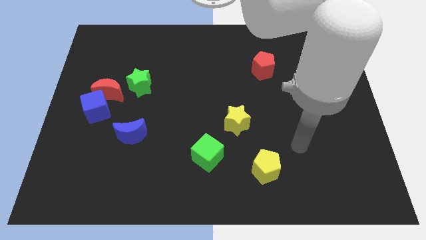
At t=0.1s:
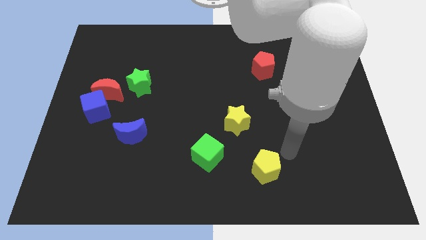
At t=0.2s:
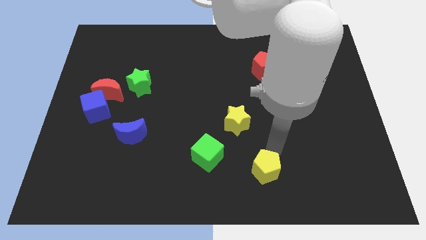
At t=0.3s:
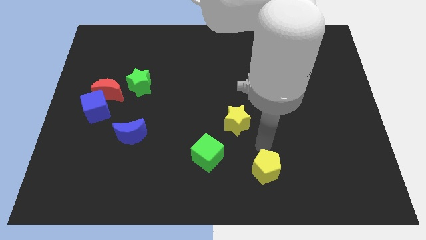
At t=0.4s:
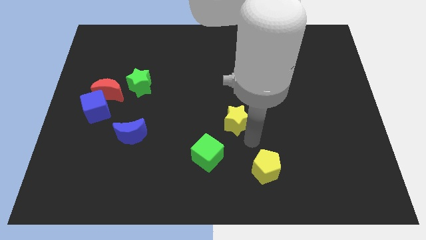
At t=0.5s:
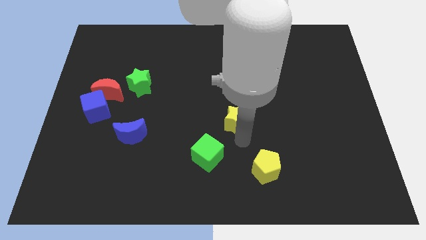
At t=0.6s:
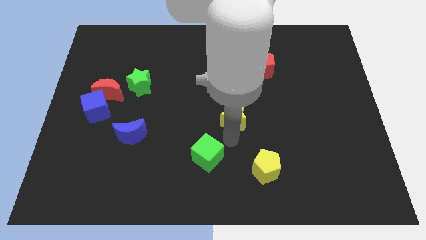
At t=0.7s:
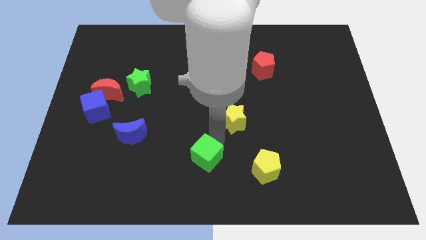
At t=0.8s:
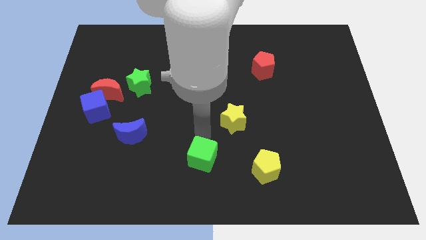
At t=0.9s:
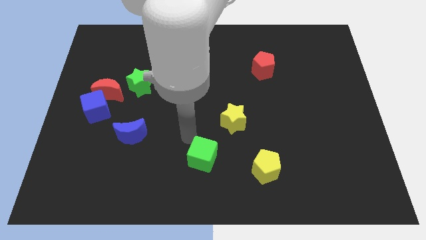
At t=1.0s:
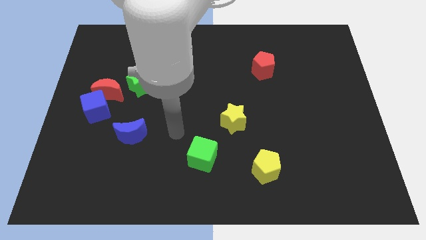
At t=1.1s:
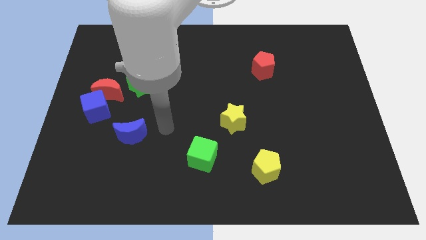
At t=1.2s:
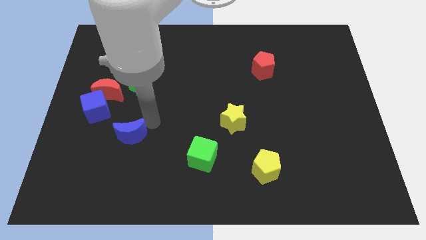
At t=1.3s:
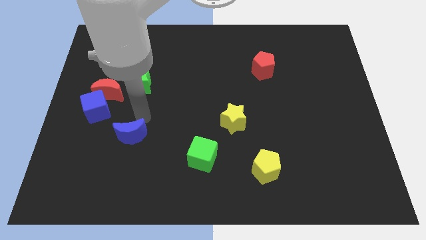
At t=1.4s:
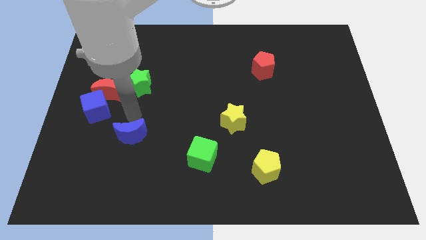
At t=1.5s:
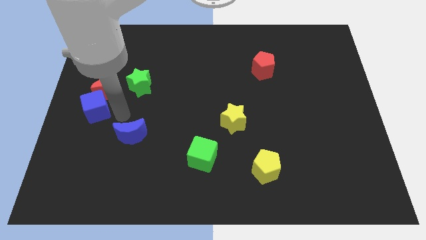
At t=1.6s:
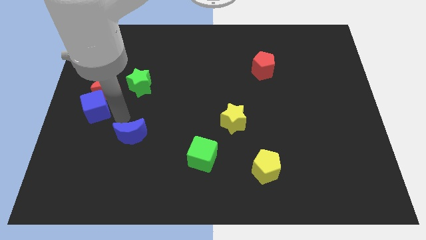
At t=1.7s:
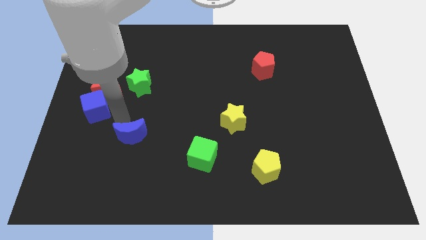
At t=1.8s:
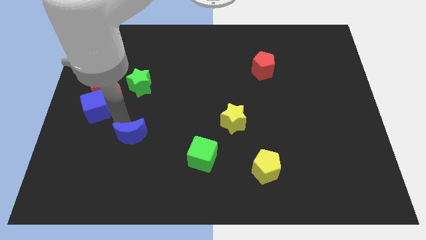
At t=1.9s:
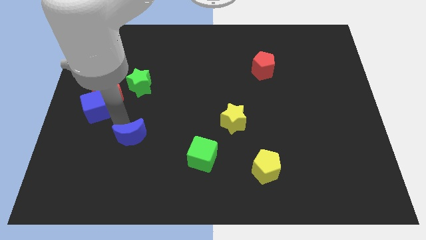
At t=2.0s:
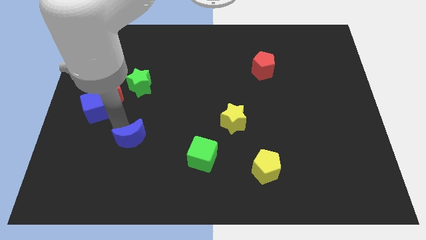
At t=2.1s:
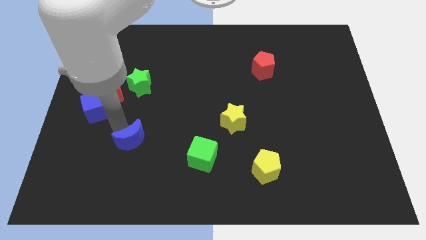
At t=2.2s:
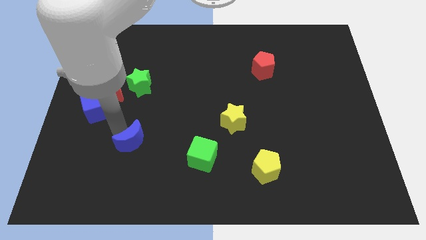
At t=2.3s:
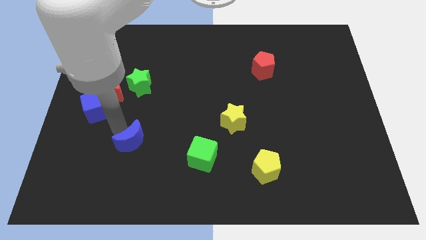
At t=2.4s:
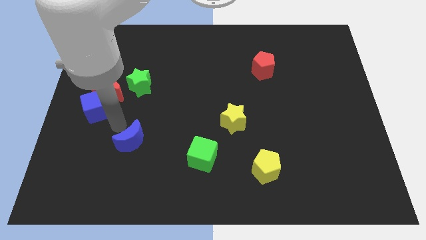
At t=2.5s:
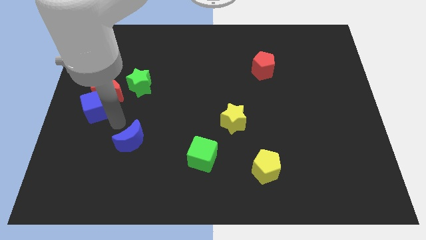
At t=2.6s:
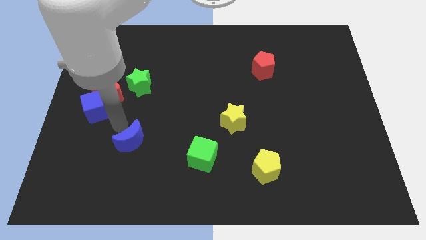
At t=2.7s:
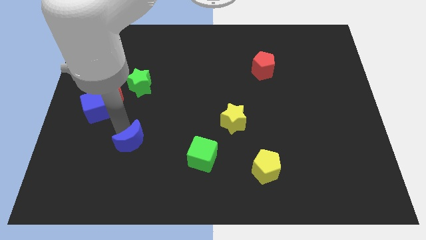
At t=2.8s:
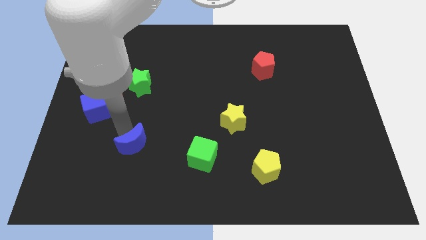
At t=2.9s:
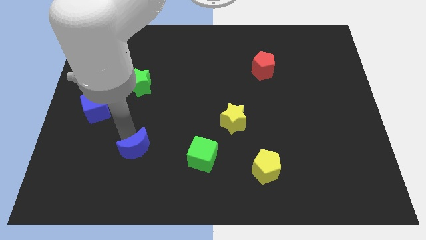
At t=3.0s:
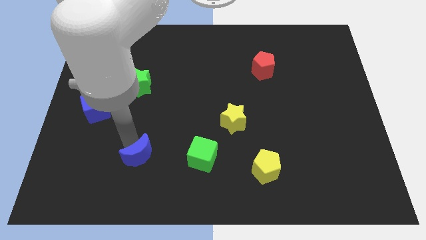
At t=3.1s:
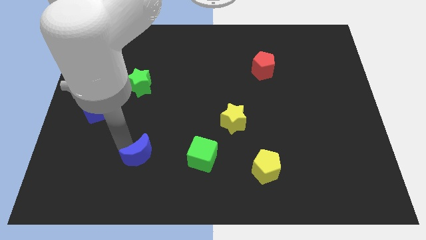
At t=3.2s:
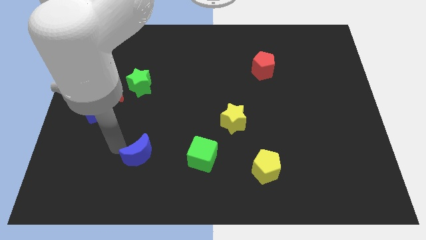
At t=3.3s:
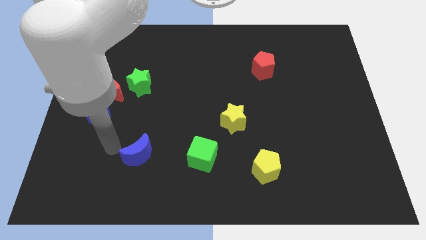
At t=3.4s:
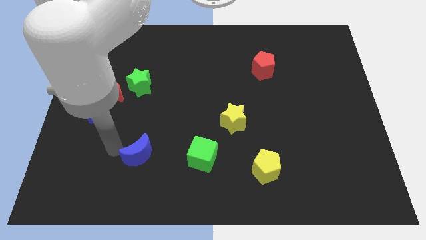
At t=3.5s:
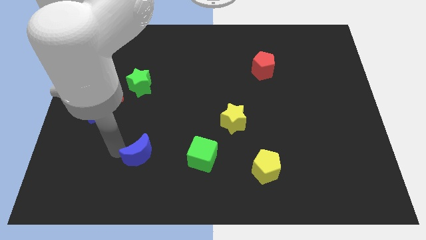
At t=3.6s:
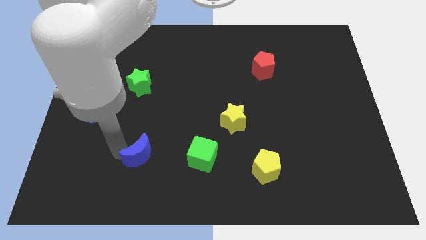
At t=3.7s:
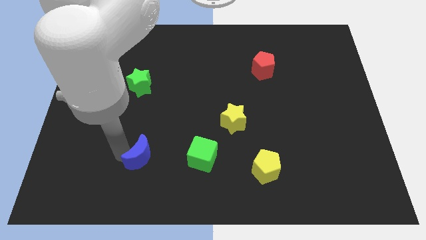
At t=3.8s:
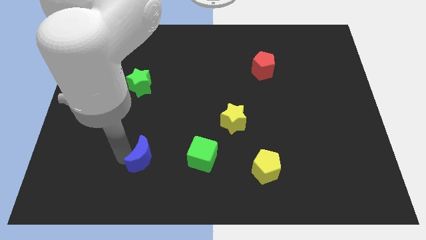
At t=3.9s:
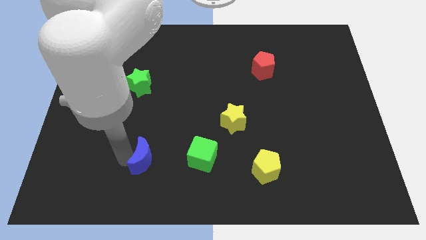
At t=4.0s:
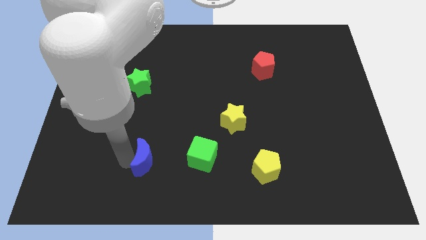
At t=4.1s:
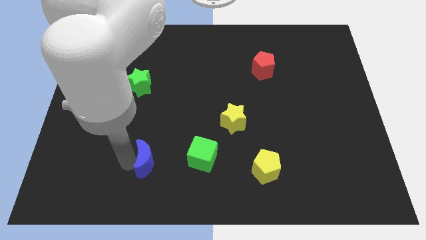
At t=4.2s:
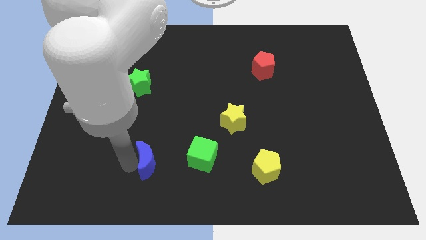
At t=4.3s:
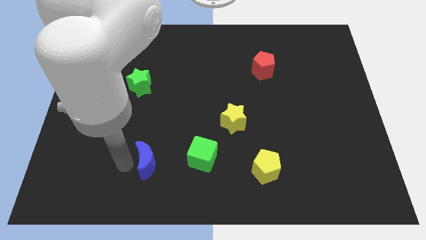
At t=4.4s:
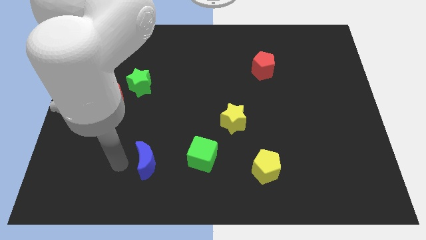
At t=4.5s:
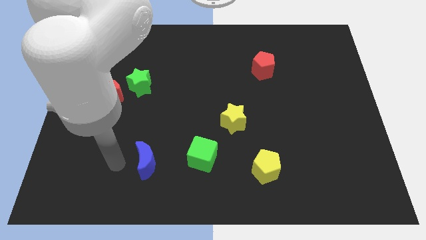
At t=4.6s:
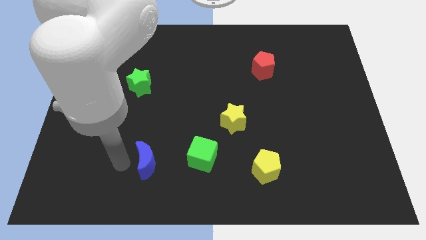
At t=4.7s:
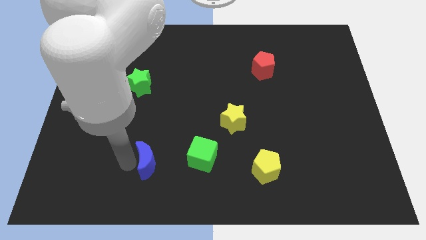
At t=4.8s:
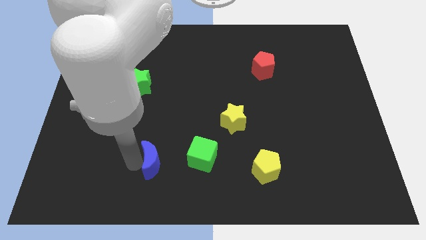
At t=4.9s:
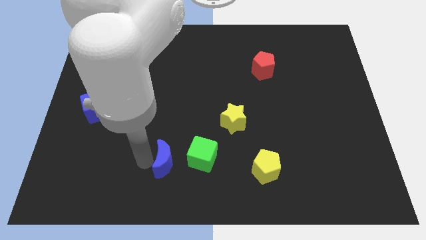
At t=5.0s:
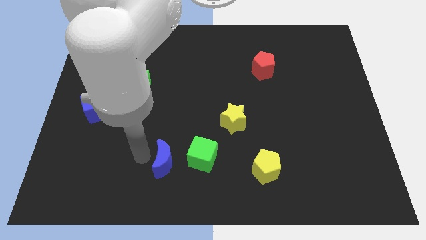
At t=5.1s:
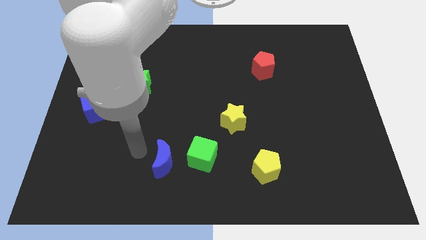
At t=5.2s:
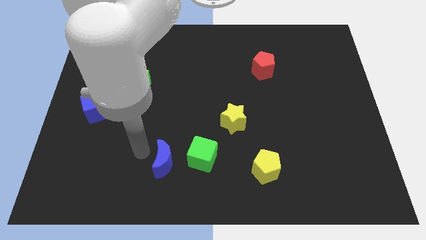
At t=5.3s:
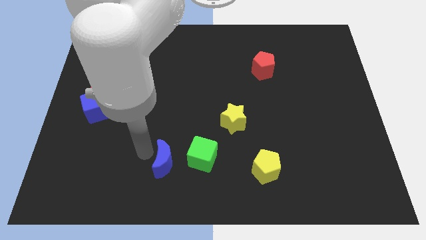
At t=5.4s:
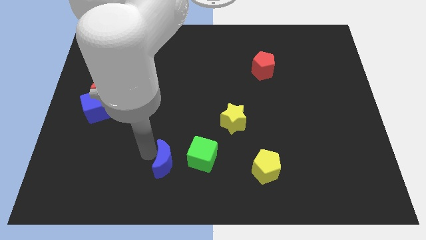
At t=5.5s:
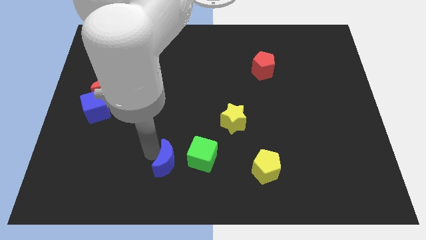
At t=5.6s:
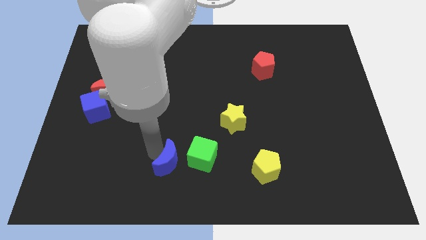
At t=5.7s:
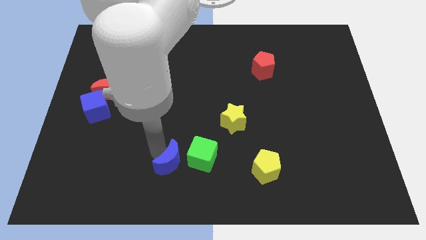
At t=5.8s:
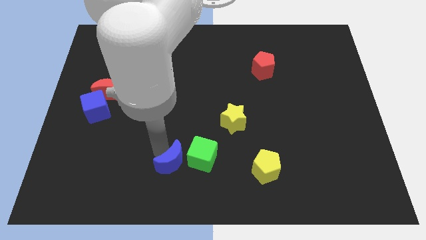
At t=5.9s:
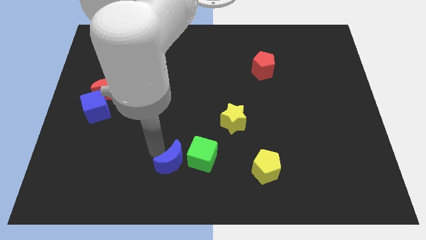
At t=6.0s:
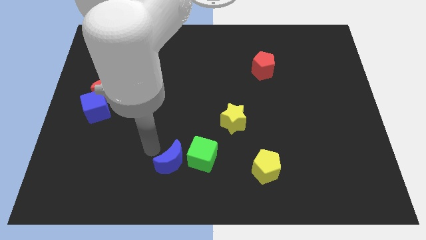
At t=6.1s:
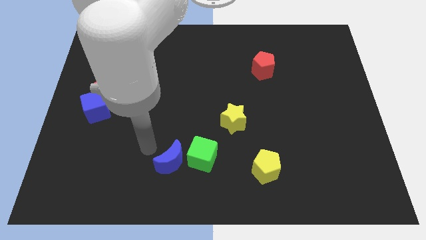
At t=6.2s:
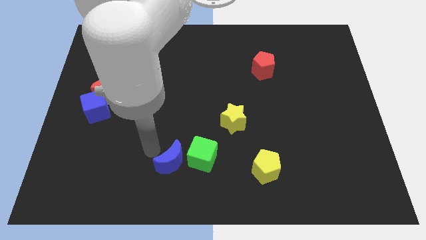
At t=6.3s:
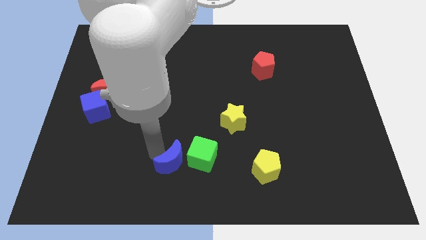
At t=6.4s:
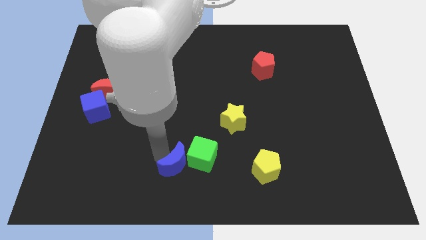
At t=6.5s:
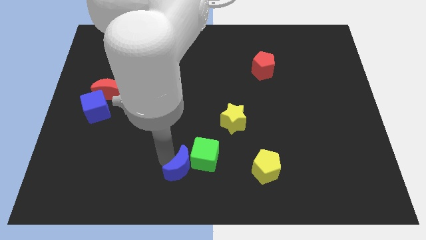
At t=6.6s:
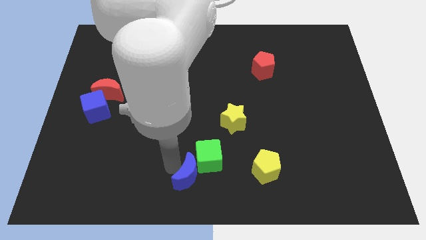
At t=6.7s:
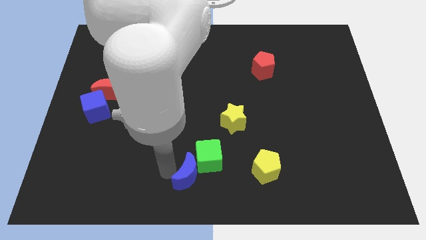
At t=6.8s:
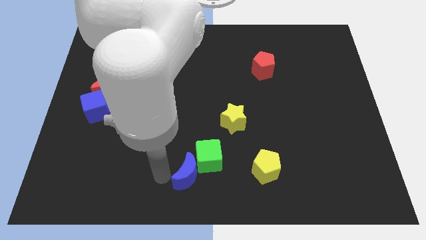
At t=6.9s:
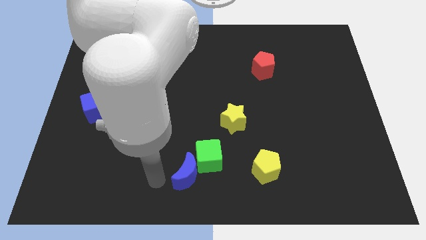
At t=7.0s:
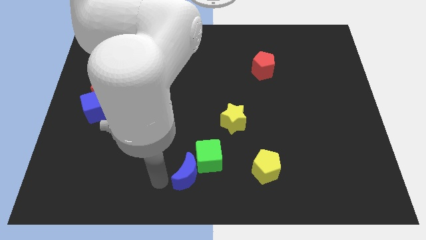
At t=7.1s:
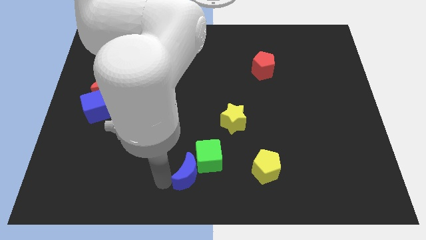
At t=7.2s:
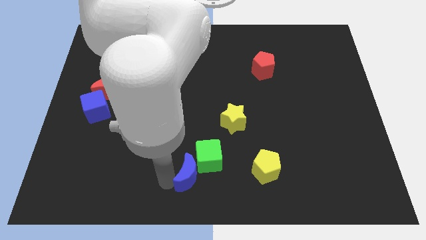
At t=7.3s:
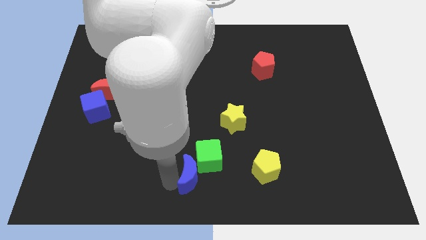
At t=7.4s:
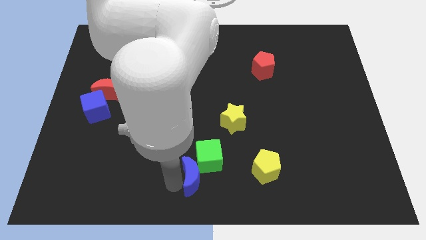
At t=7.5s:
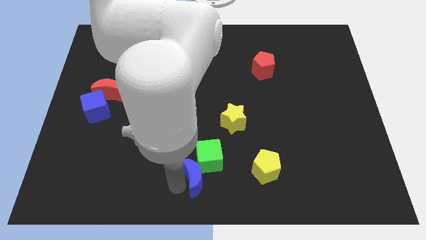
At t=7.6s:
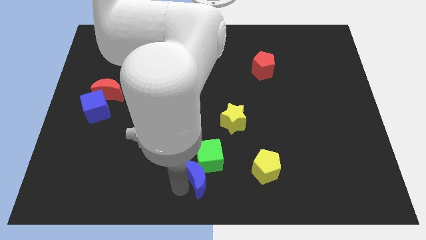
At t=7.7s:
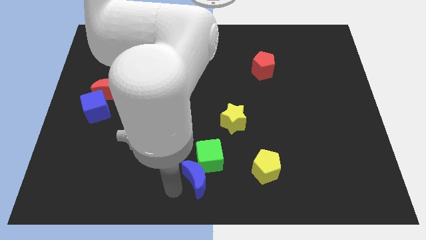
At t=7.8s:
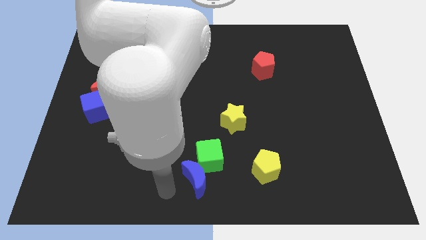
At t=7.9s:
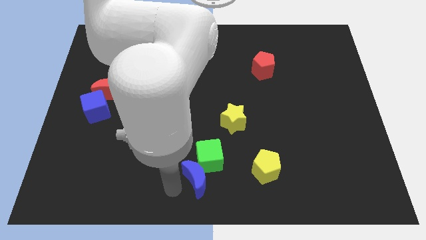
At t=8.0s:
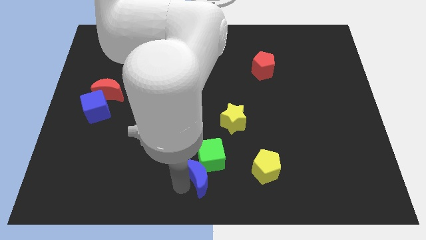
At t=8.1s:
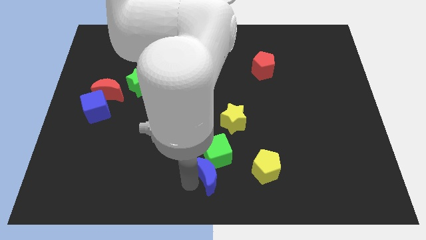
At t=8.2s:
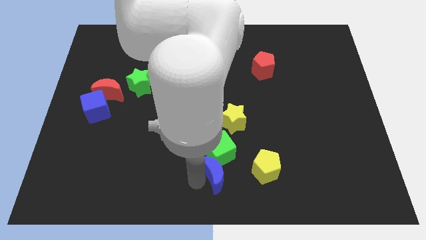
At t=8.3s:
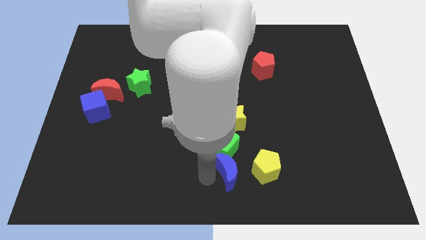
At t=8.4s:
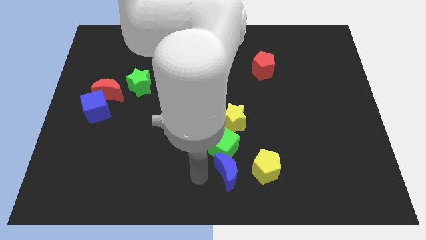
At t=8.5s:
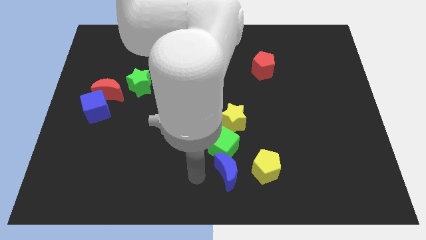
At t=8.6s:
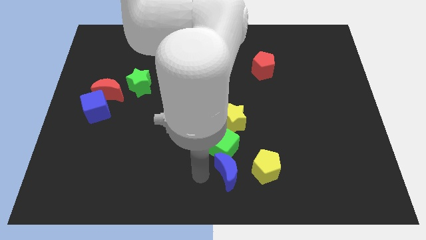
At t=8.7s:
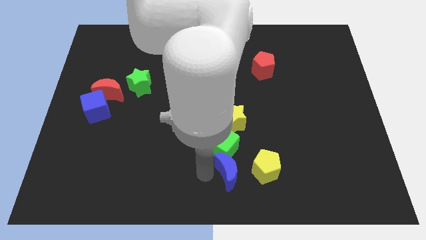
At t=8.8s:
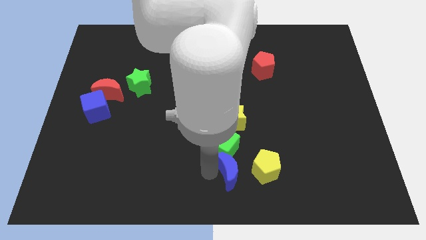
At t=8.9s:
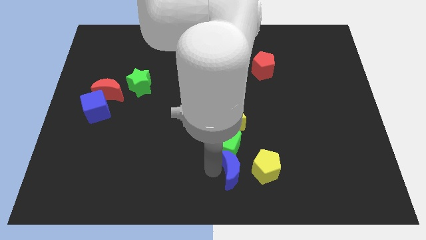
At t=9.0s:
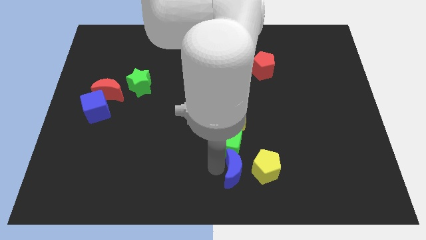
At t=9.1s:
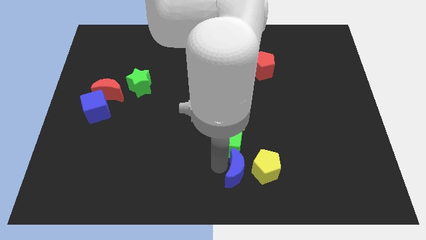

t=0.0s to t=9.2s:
put the blue moon towards the yellow pentagon
